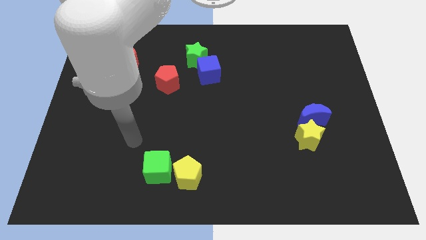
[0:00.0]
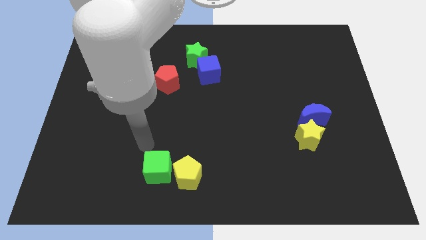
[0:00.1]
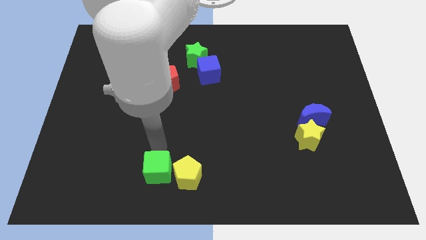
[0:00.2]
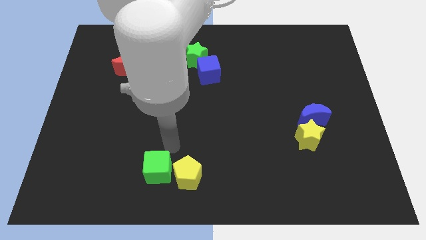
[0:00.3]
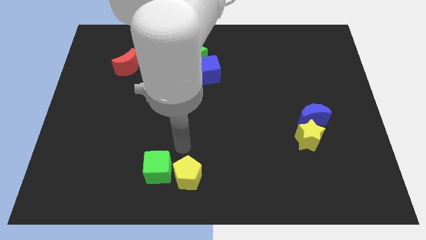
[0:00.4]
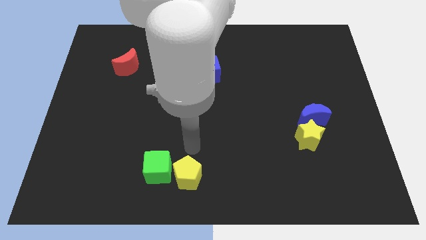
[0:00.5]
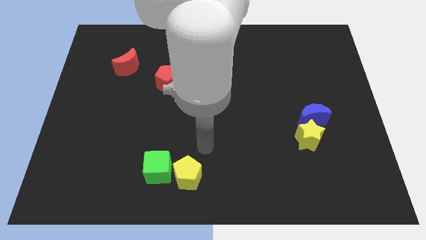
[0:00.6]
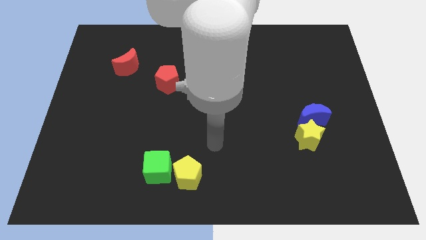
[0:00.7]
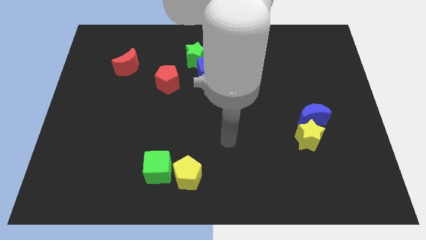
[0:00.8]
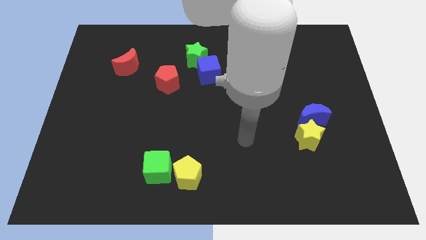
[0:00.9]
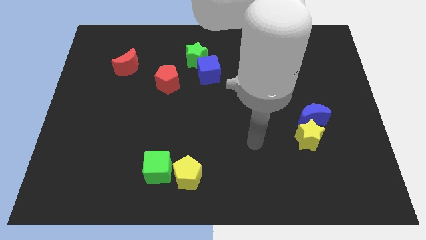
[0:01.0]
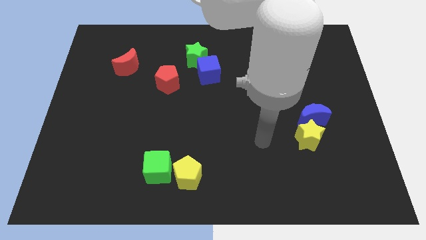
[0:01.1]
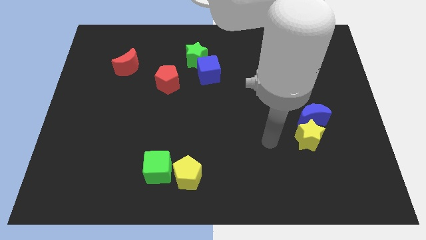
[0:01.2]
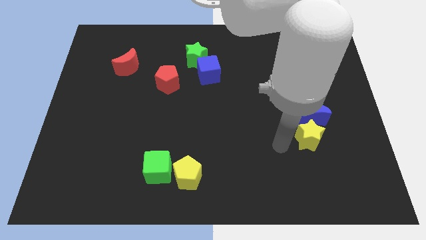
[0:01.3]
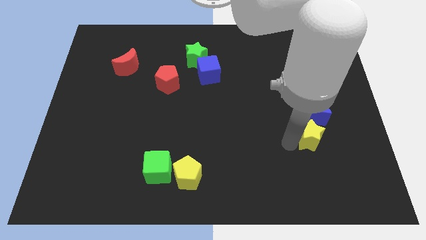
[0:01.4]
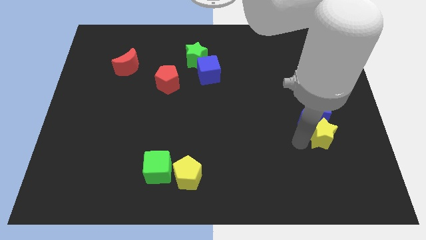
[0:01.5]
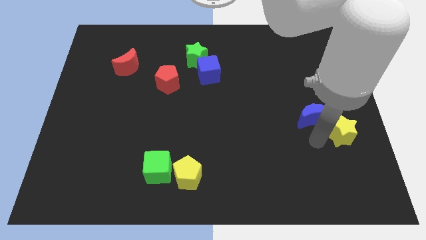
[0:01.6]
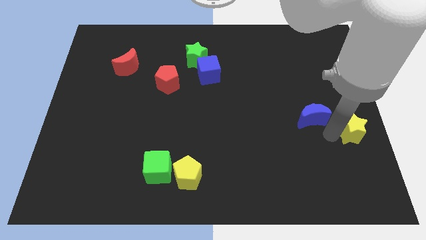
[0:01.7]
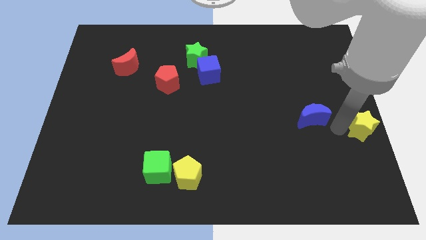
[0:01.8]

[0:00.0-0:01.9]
pull the blue moon apart from the yellow star

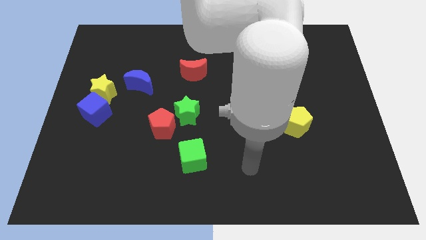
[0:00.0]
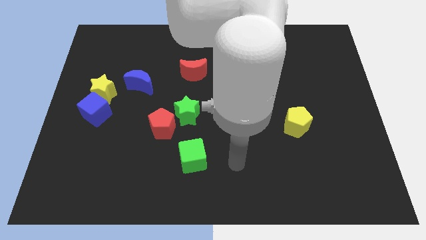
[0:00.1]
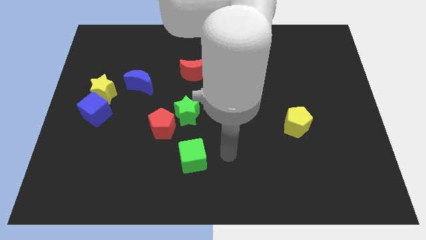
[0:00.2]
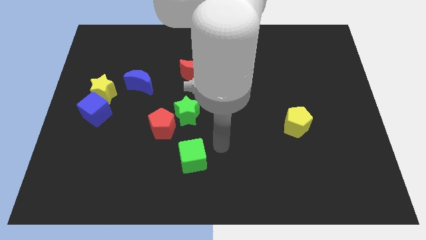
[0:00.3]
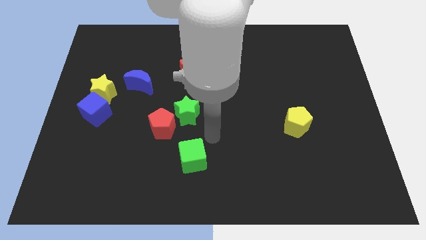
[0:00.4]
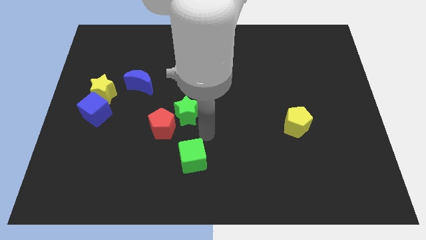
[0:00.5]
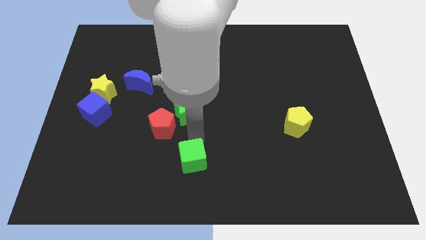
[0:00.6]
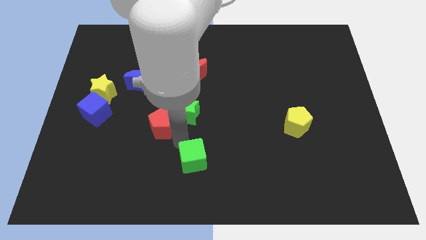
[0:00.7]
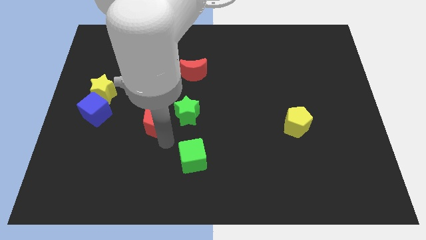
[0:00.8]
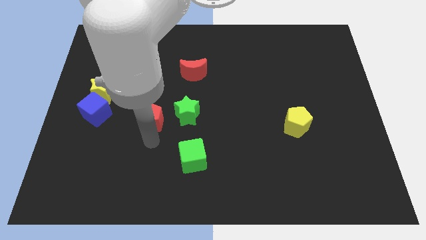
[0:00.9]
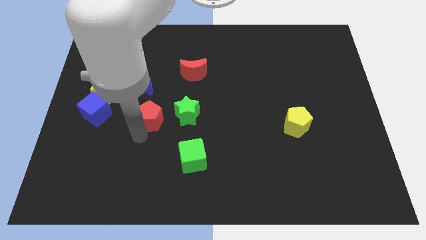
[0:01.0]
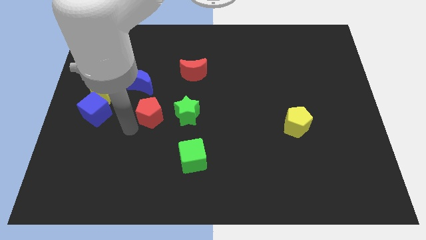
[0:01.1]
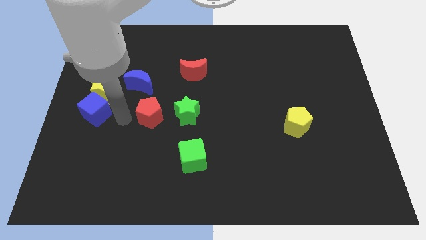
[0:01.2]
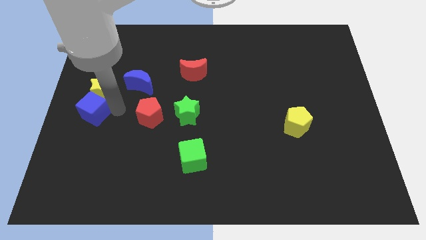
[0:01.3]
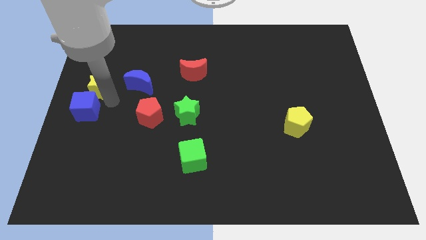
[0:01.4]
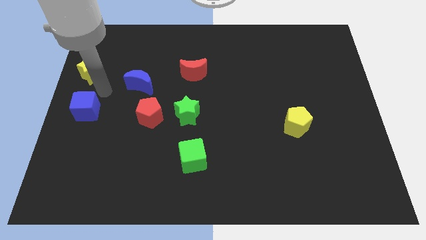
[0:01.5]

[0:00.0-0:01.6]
pull the blue cube apart from the yellow star

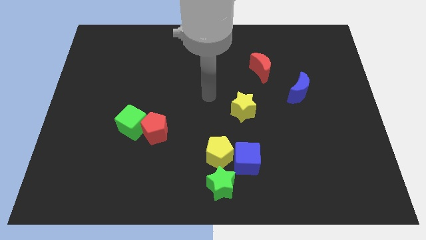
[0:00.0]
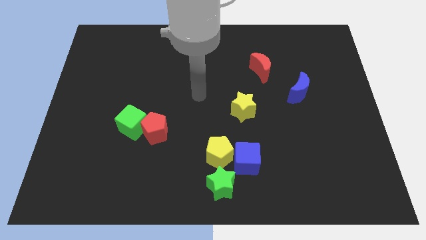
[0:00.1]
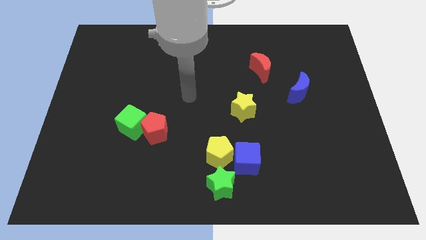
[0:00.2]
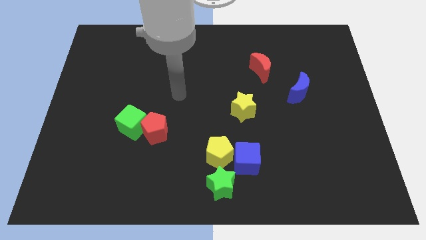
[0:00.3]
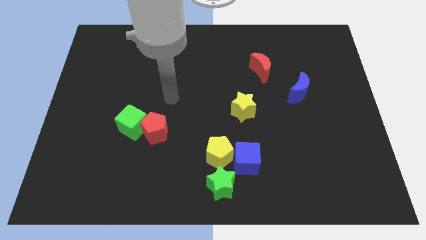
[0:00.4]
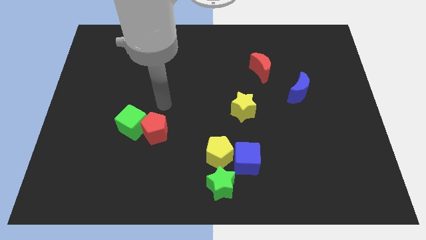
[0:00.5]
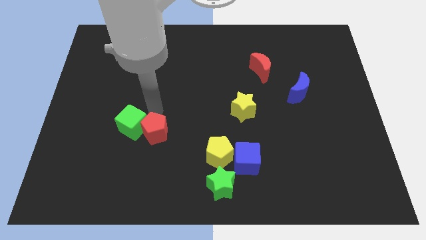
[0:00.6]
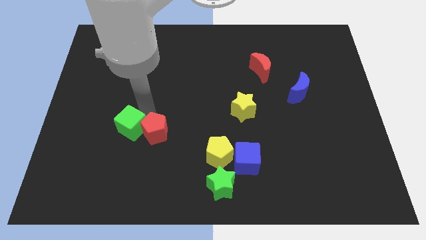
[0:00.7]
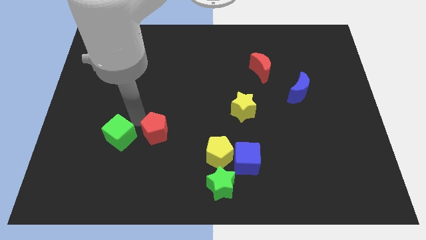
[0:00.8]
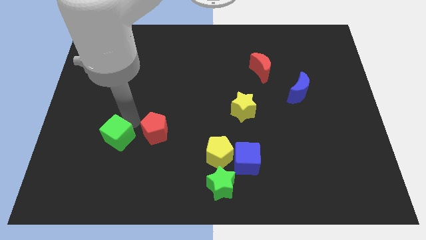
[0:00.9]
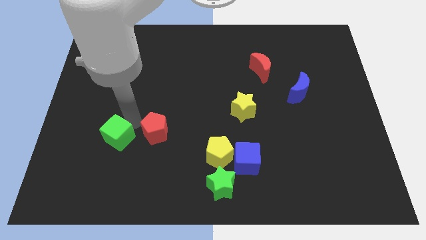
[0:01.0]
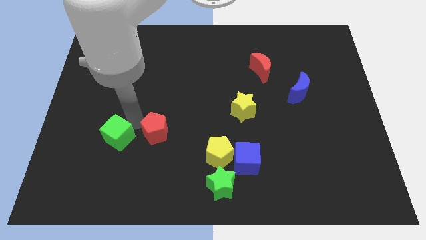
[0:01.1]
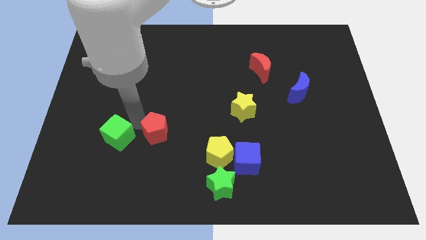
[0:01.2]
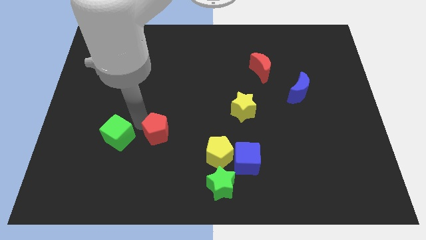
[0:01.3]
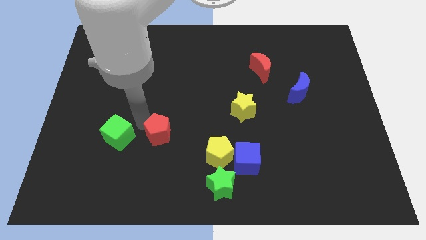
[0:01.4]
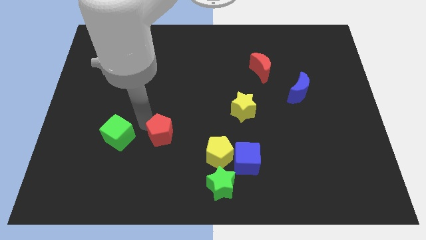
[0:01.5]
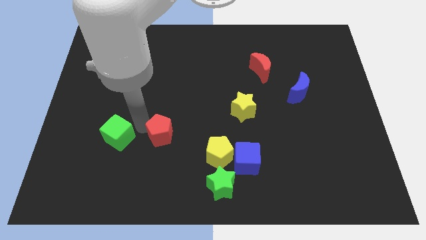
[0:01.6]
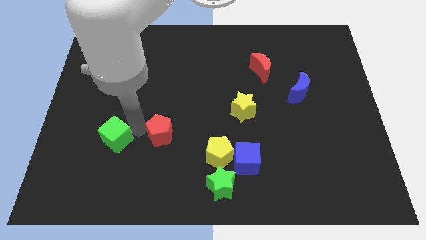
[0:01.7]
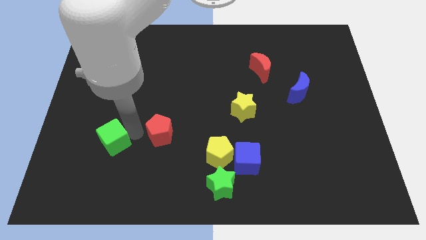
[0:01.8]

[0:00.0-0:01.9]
separate the red pentagon from the green cube

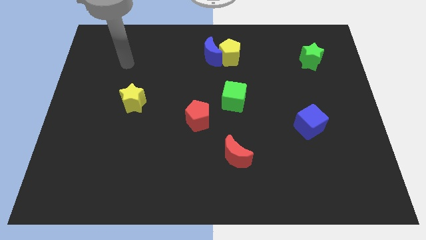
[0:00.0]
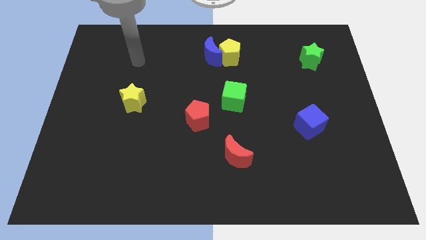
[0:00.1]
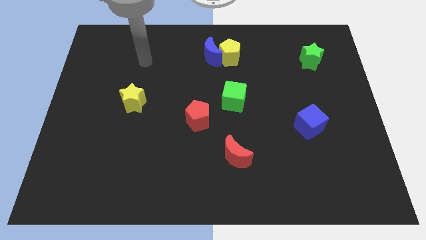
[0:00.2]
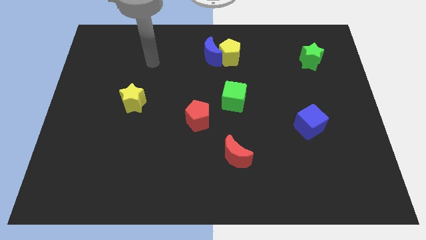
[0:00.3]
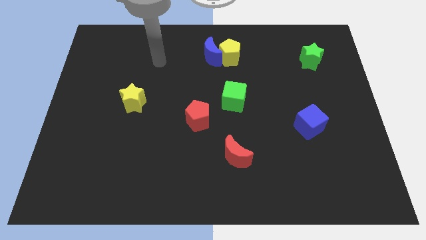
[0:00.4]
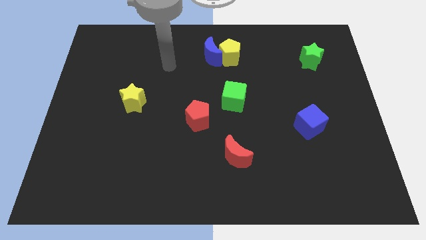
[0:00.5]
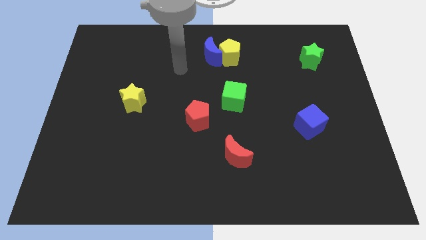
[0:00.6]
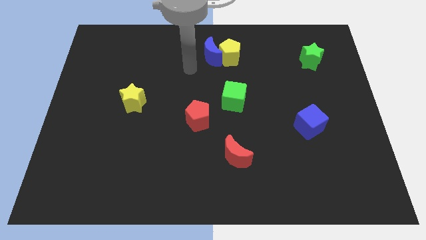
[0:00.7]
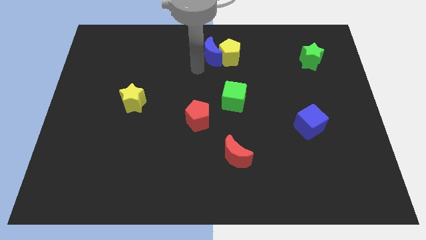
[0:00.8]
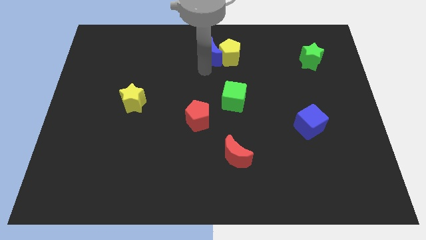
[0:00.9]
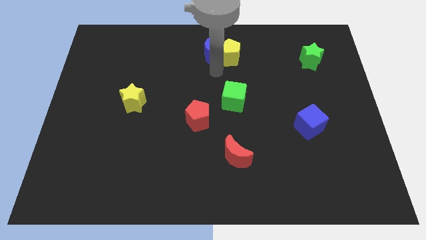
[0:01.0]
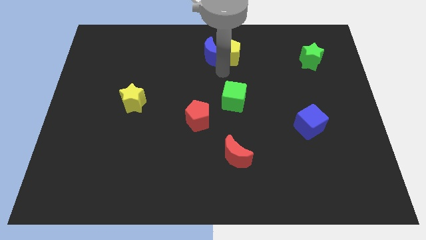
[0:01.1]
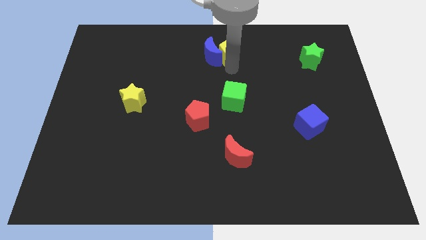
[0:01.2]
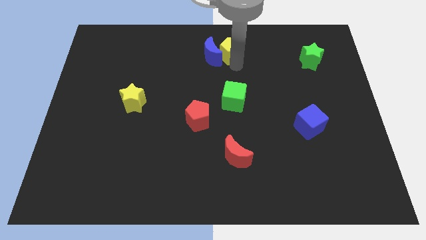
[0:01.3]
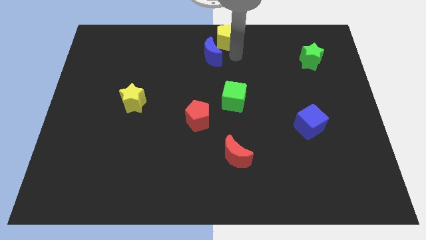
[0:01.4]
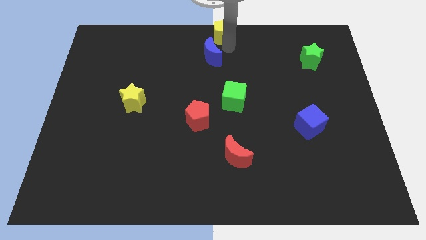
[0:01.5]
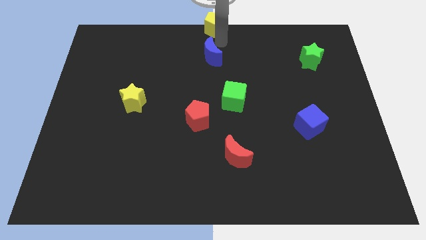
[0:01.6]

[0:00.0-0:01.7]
separate the blue moon from the yellow pentagon

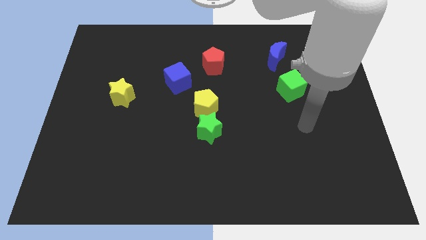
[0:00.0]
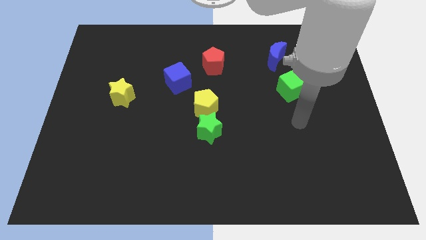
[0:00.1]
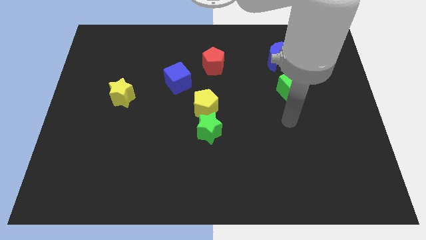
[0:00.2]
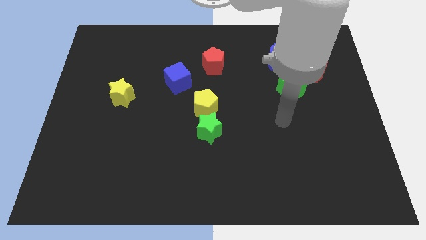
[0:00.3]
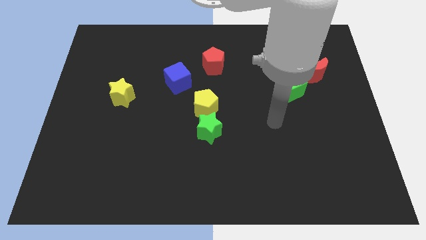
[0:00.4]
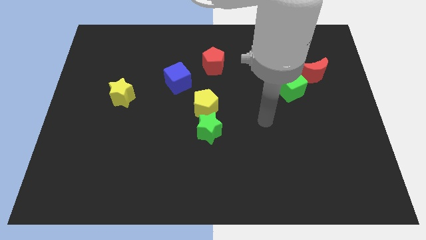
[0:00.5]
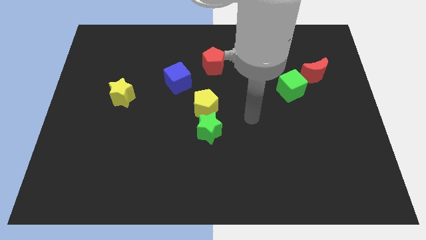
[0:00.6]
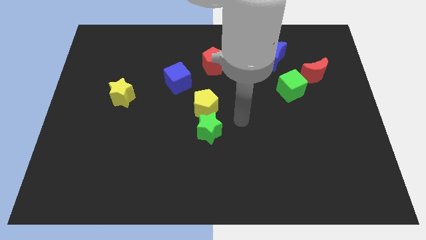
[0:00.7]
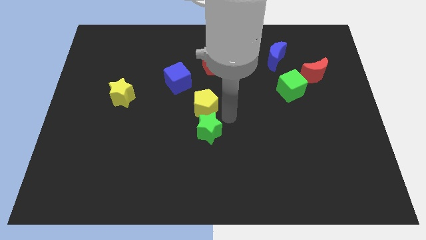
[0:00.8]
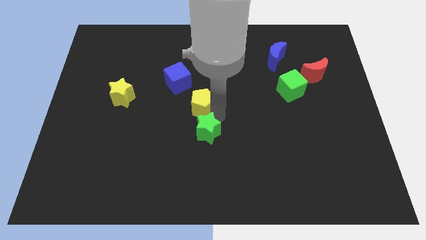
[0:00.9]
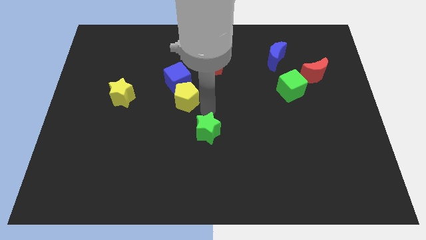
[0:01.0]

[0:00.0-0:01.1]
move the green star away from the yellow pentagon

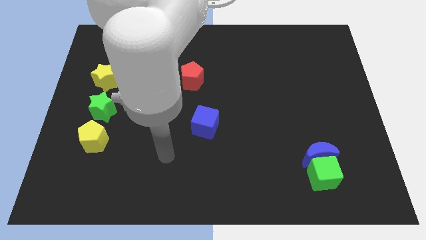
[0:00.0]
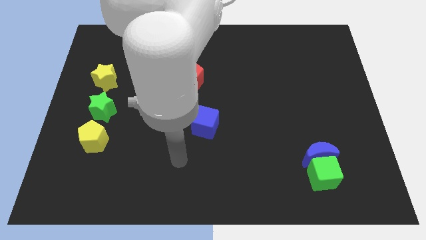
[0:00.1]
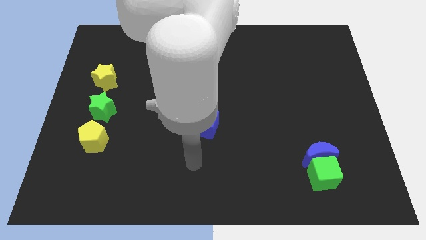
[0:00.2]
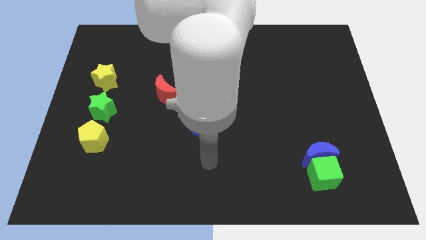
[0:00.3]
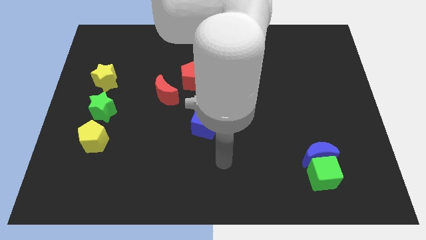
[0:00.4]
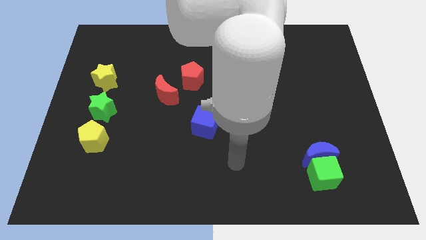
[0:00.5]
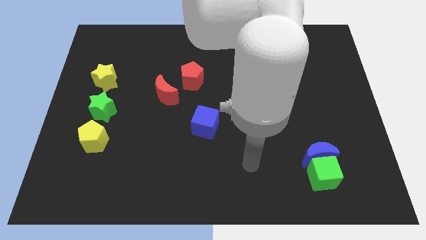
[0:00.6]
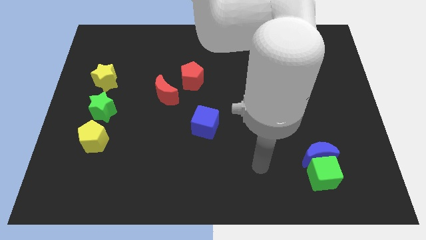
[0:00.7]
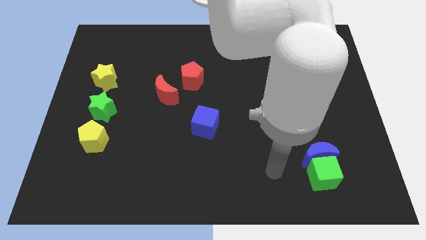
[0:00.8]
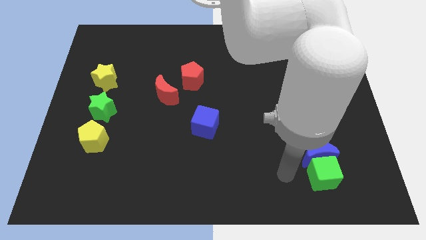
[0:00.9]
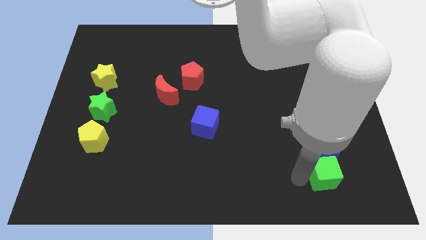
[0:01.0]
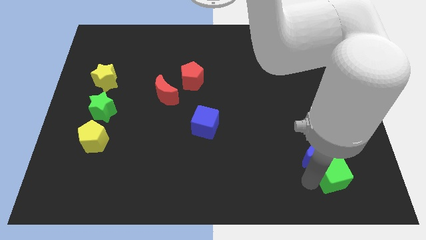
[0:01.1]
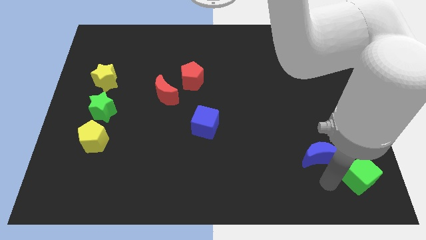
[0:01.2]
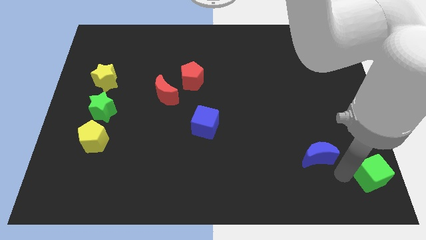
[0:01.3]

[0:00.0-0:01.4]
separate the blue moon from the green cube
